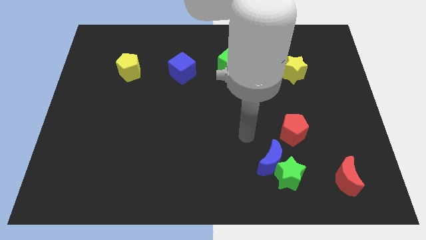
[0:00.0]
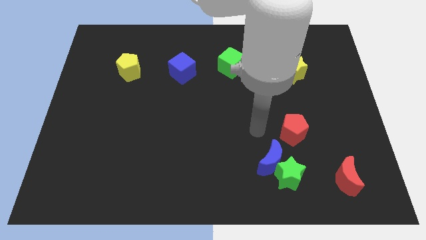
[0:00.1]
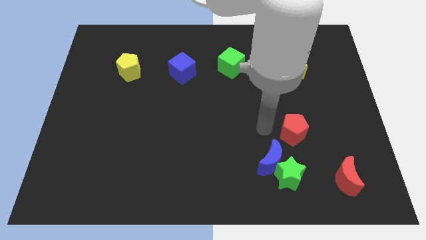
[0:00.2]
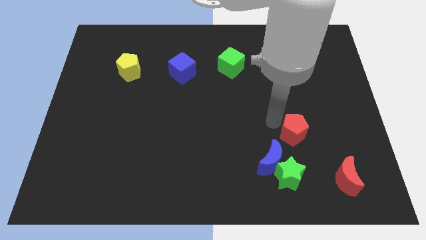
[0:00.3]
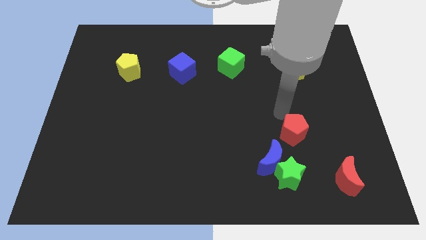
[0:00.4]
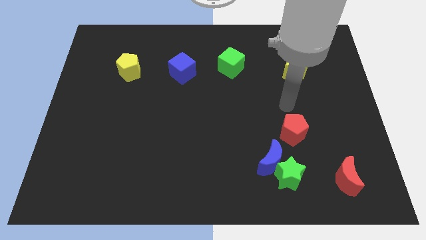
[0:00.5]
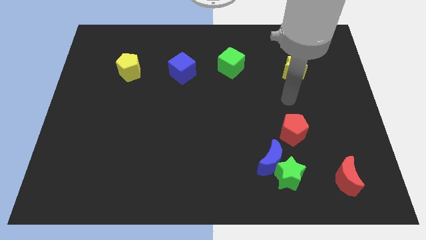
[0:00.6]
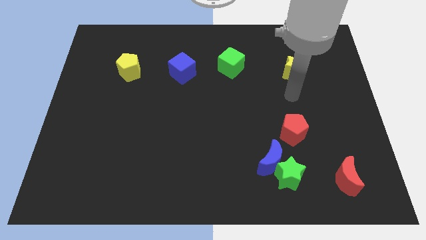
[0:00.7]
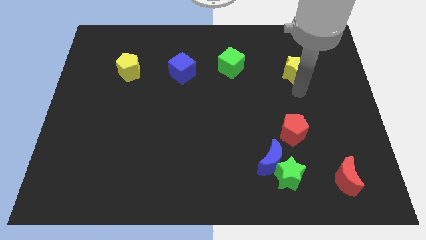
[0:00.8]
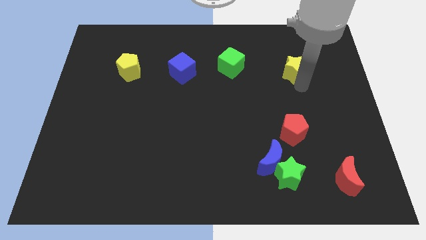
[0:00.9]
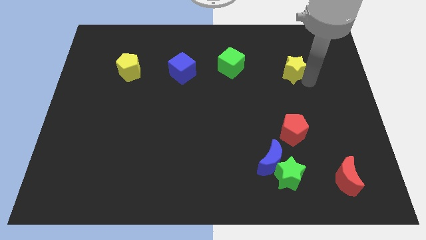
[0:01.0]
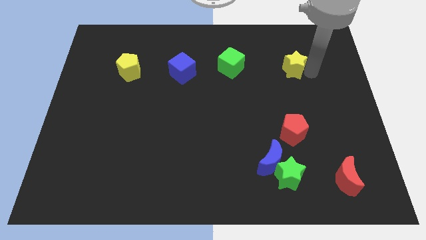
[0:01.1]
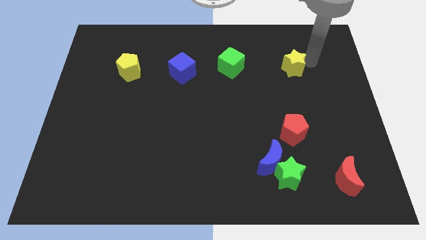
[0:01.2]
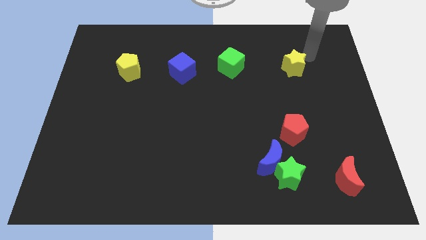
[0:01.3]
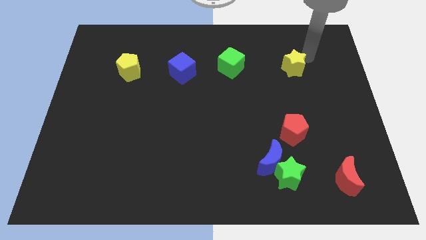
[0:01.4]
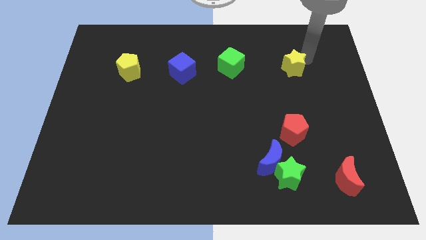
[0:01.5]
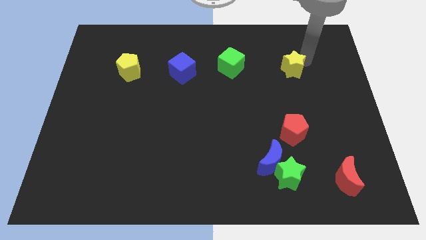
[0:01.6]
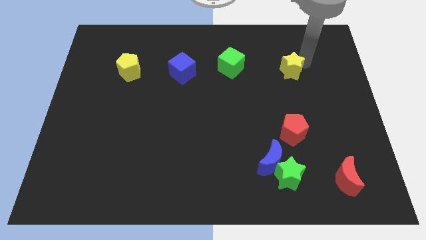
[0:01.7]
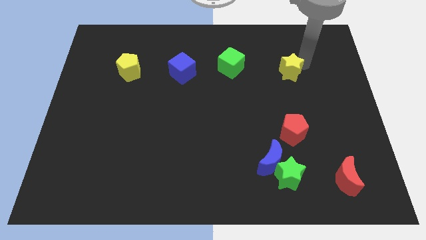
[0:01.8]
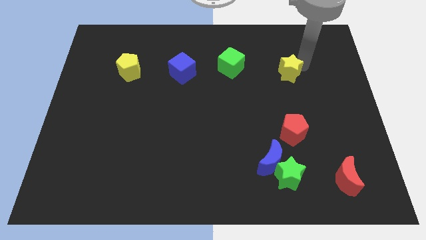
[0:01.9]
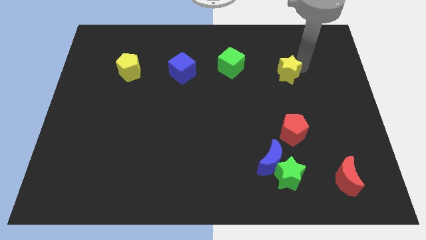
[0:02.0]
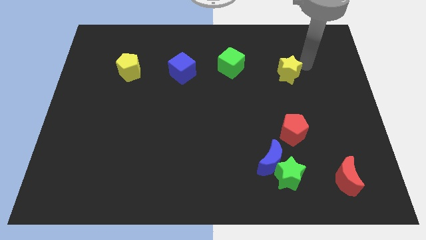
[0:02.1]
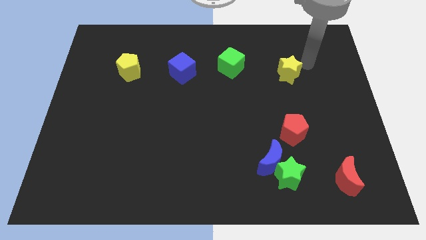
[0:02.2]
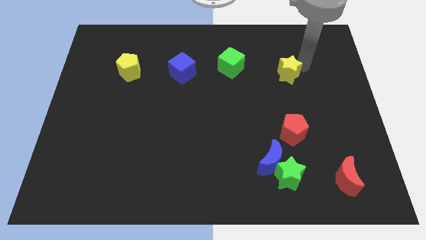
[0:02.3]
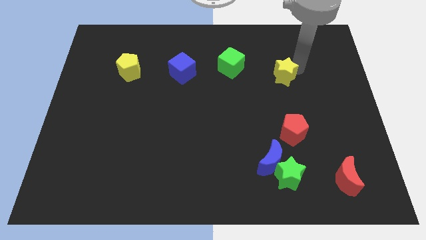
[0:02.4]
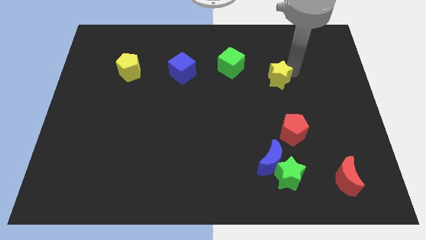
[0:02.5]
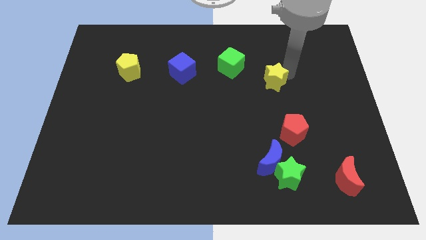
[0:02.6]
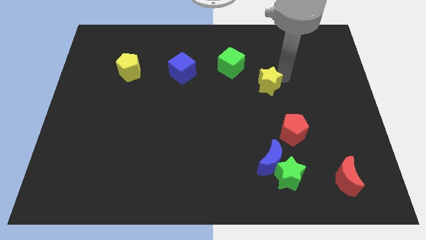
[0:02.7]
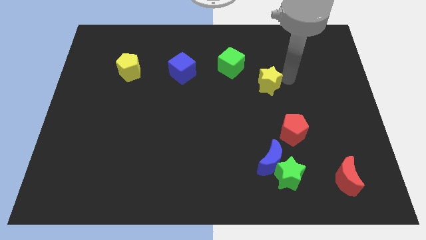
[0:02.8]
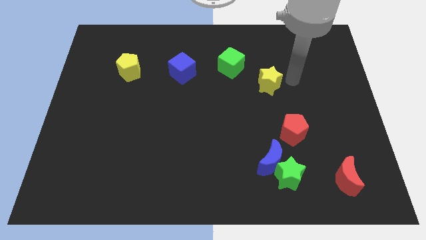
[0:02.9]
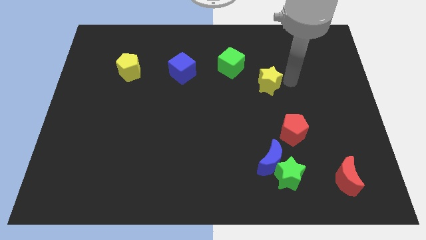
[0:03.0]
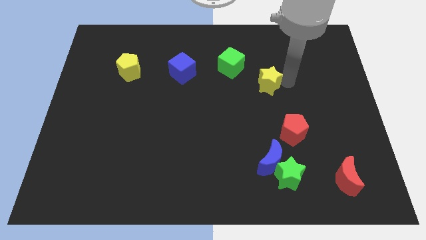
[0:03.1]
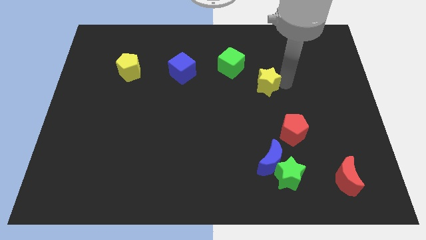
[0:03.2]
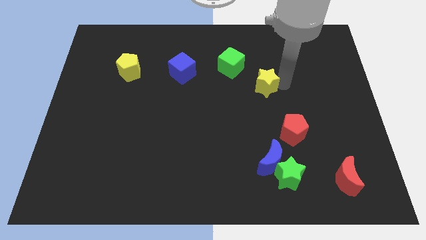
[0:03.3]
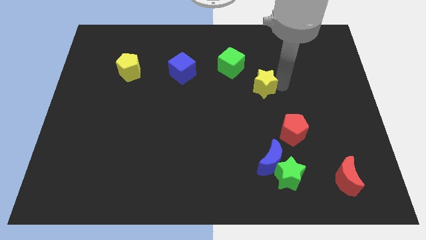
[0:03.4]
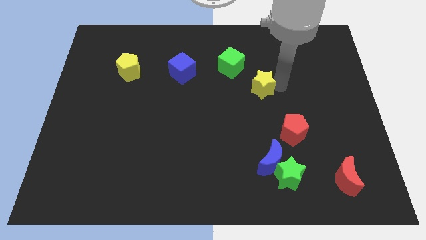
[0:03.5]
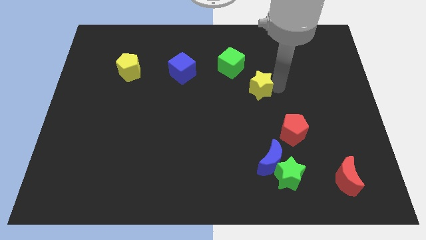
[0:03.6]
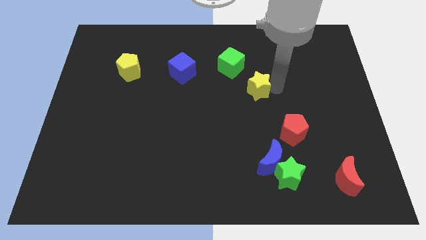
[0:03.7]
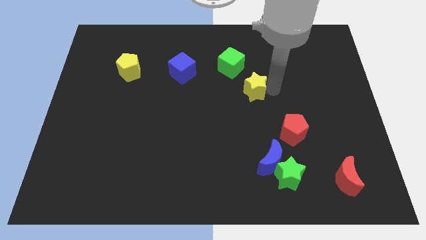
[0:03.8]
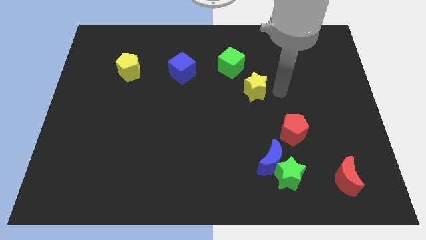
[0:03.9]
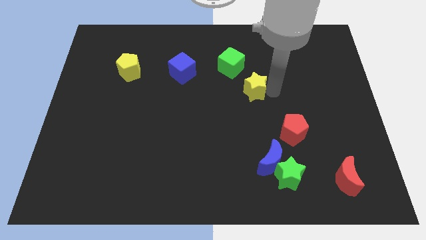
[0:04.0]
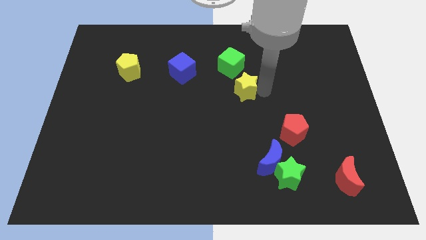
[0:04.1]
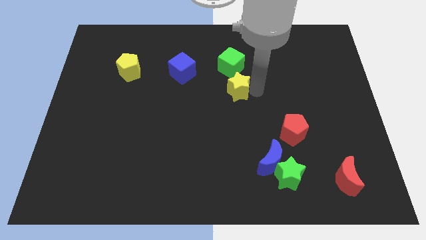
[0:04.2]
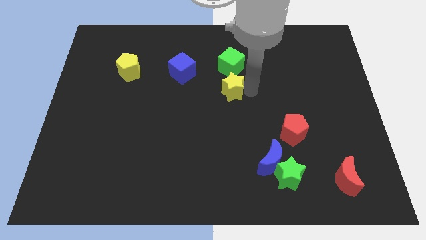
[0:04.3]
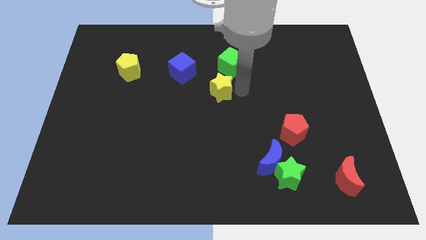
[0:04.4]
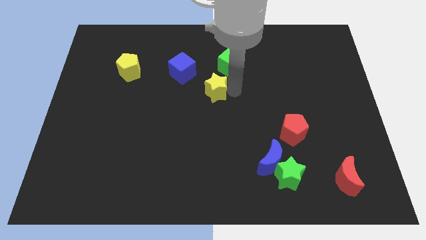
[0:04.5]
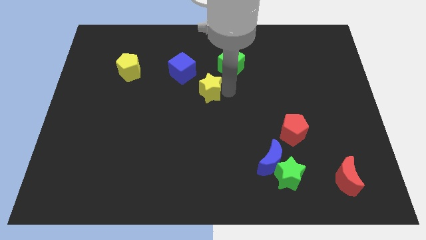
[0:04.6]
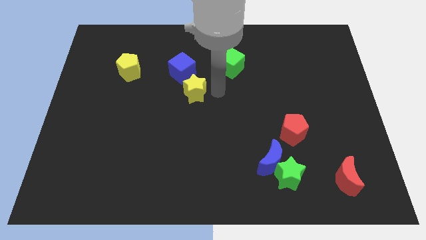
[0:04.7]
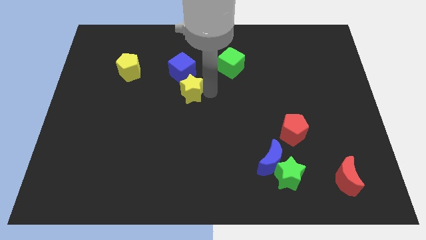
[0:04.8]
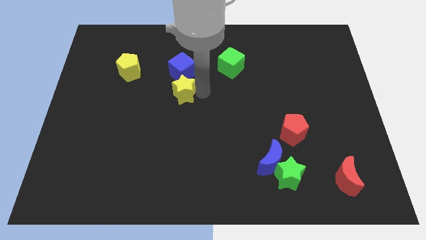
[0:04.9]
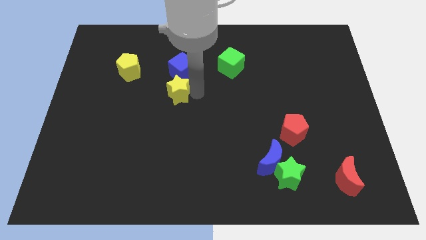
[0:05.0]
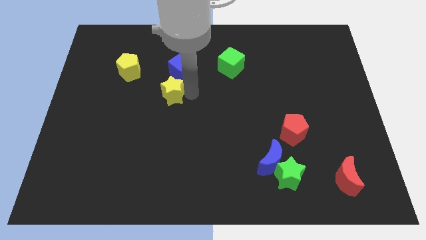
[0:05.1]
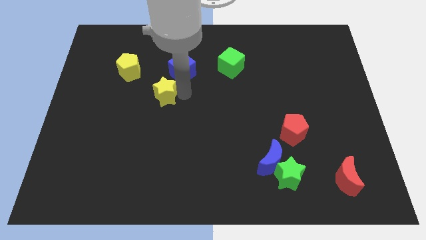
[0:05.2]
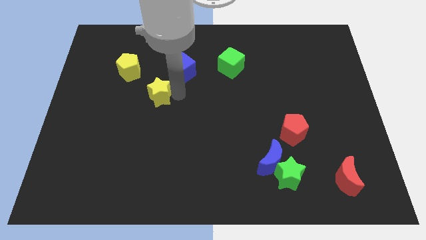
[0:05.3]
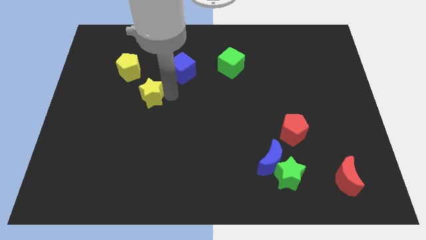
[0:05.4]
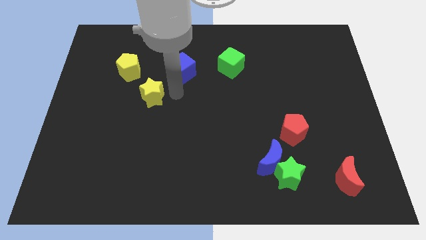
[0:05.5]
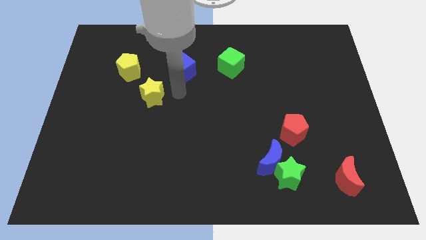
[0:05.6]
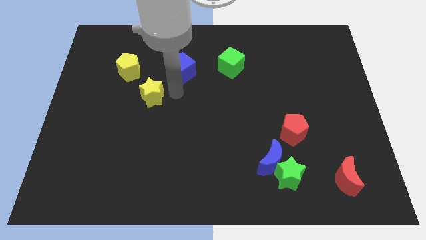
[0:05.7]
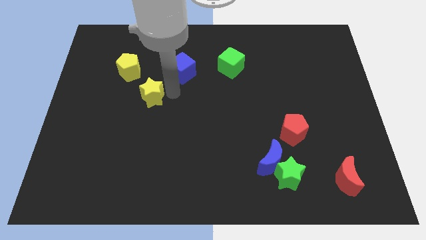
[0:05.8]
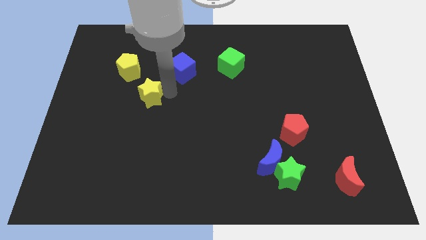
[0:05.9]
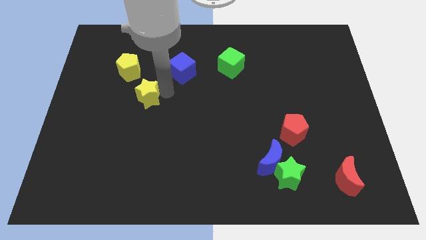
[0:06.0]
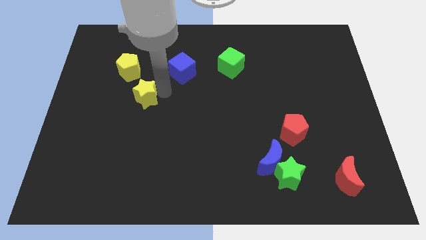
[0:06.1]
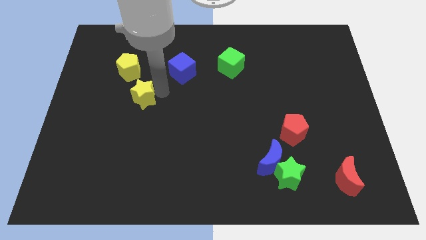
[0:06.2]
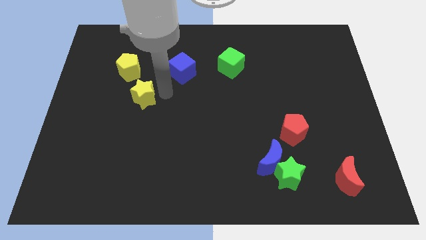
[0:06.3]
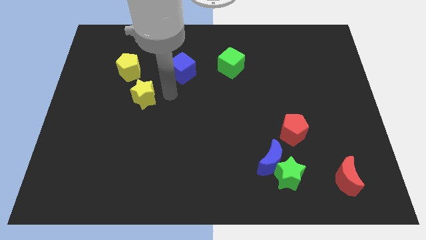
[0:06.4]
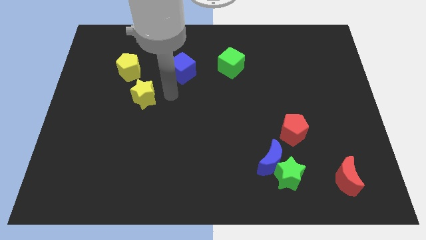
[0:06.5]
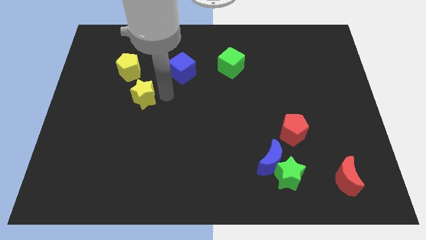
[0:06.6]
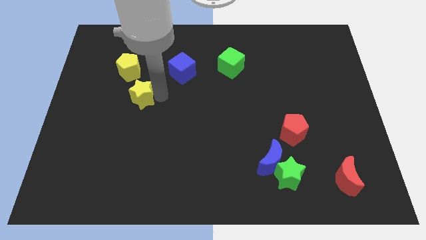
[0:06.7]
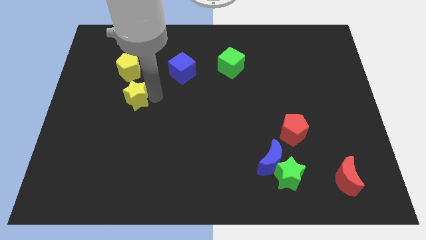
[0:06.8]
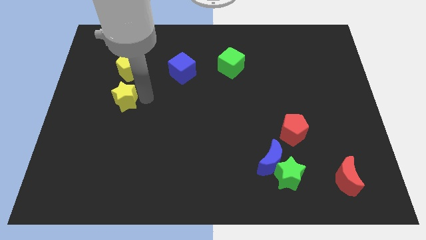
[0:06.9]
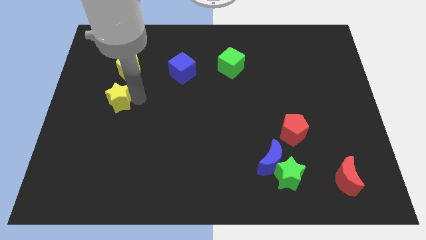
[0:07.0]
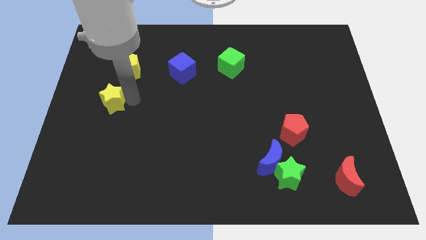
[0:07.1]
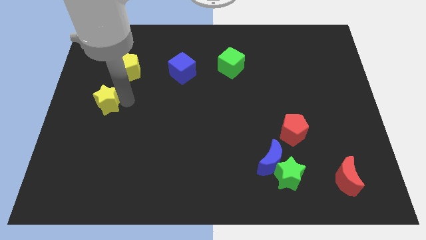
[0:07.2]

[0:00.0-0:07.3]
move the yellow star to the center left
